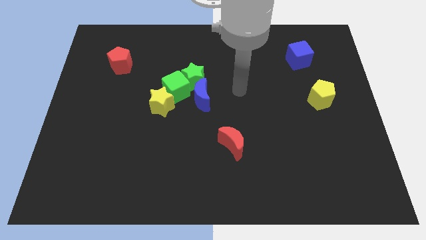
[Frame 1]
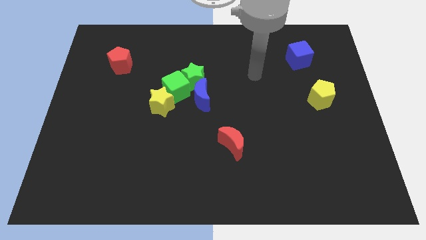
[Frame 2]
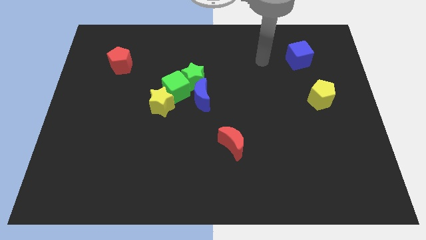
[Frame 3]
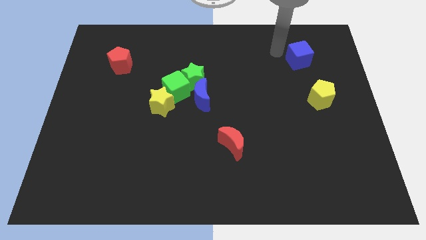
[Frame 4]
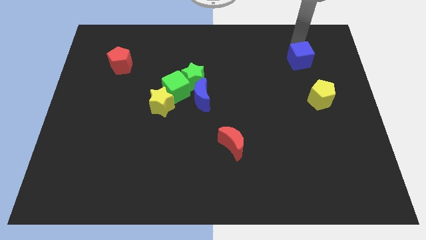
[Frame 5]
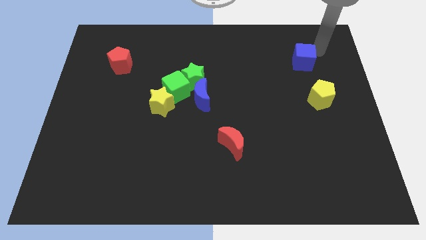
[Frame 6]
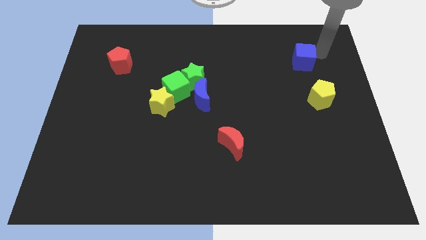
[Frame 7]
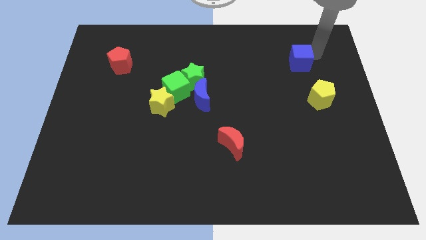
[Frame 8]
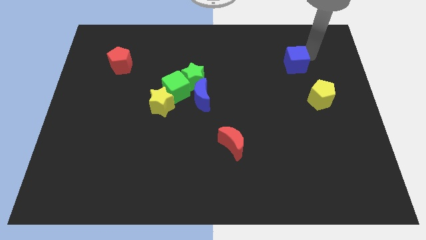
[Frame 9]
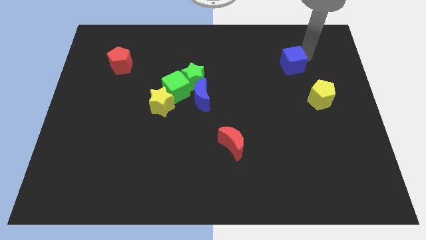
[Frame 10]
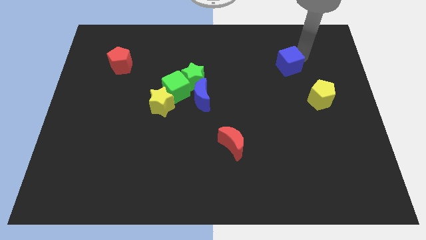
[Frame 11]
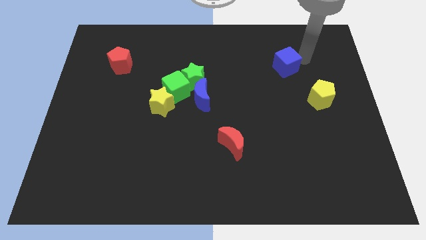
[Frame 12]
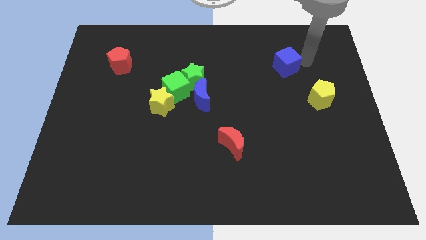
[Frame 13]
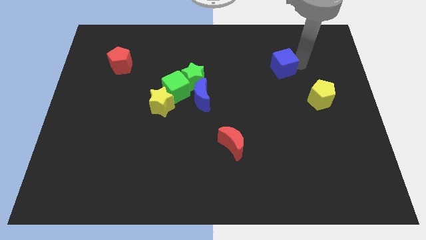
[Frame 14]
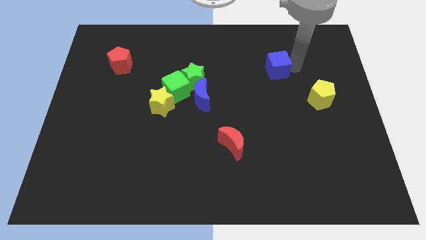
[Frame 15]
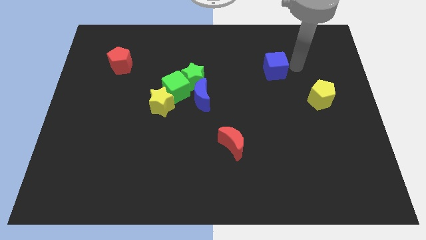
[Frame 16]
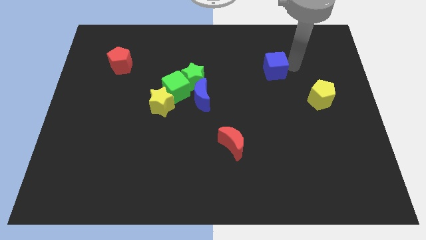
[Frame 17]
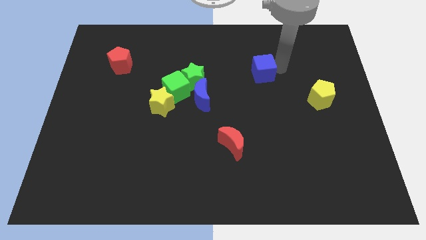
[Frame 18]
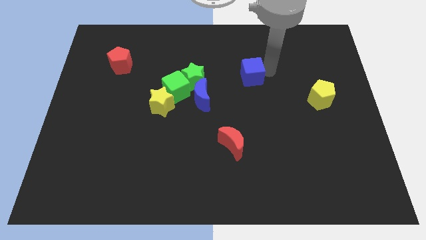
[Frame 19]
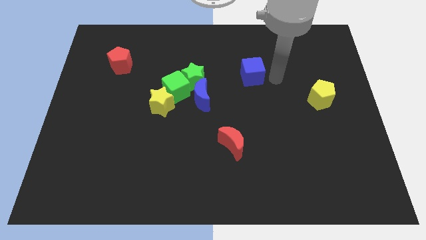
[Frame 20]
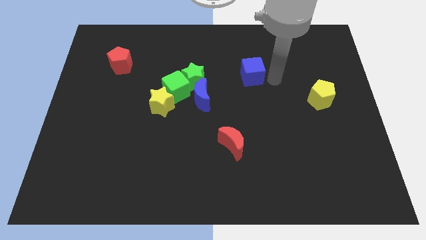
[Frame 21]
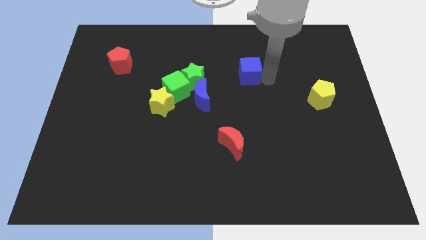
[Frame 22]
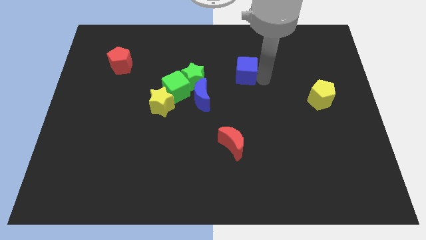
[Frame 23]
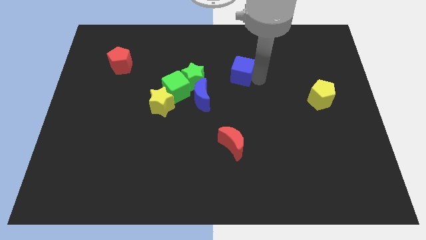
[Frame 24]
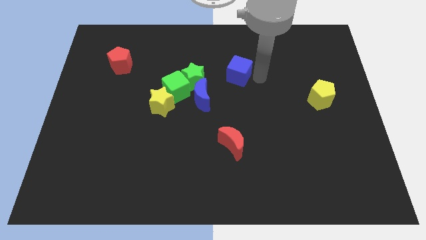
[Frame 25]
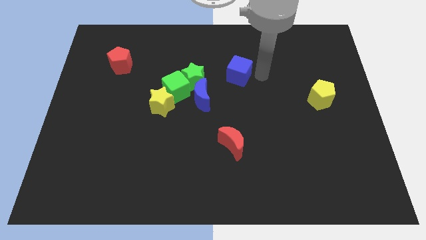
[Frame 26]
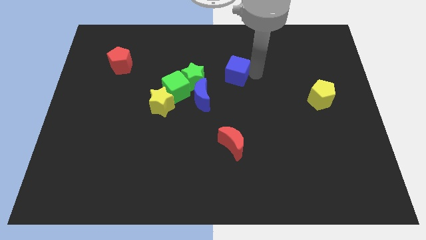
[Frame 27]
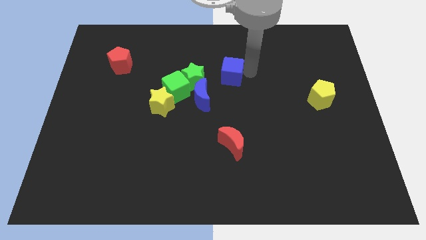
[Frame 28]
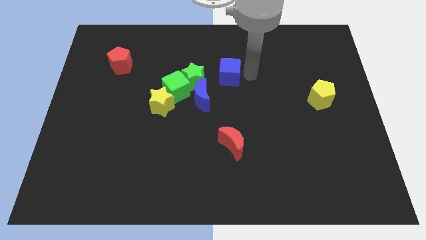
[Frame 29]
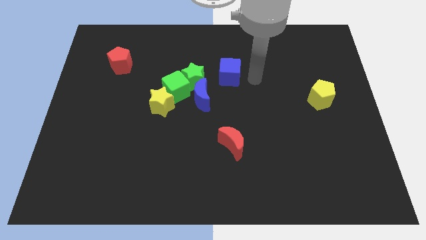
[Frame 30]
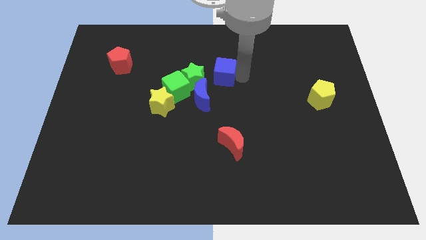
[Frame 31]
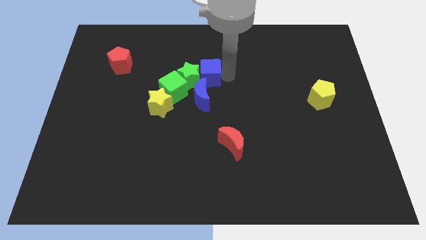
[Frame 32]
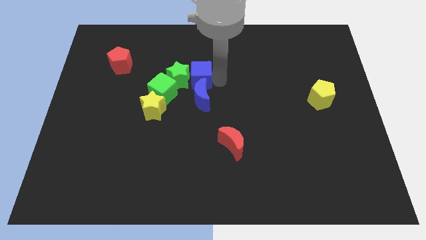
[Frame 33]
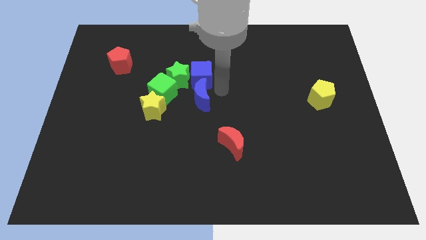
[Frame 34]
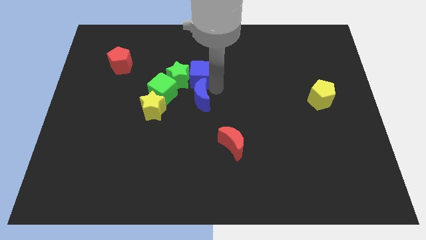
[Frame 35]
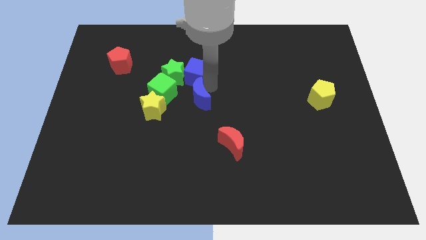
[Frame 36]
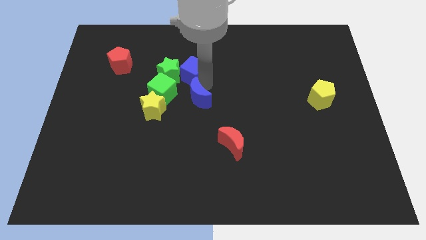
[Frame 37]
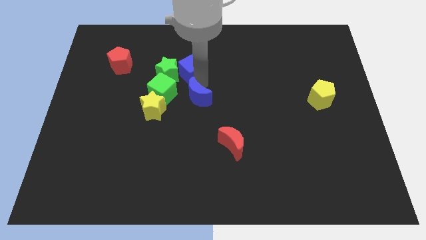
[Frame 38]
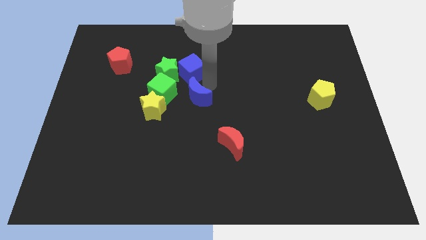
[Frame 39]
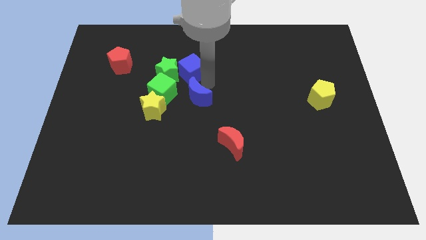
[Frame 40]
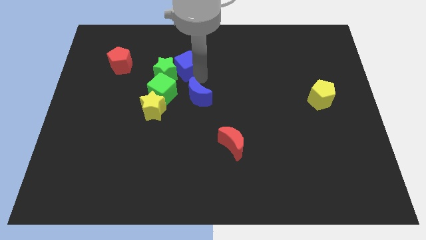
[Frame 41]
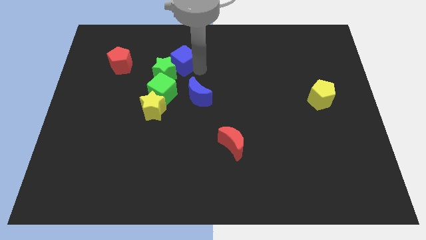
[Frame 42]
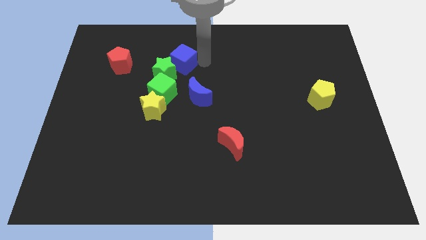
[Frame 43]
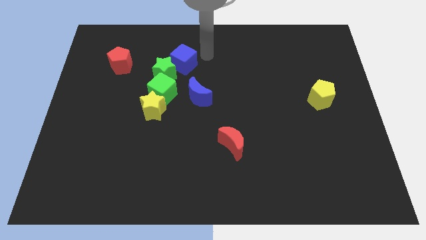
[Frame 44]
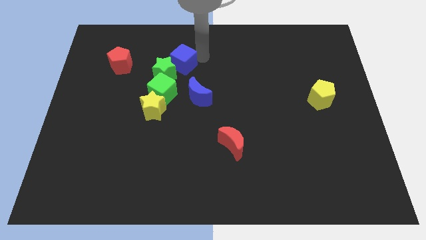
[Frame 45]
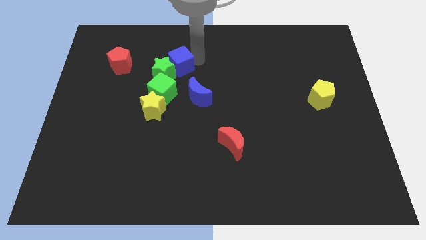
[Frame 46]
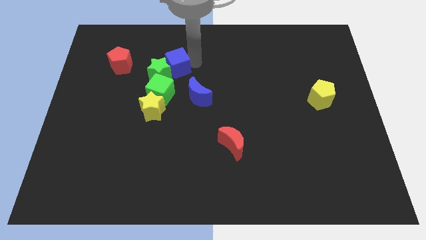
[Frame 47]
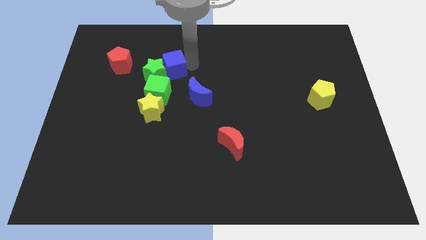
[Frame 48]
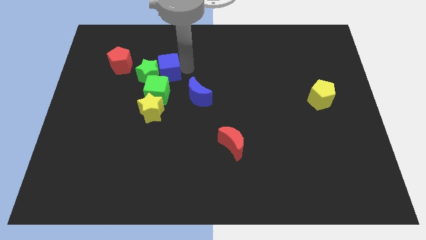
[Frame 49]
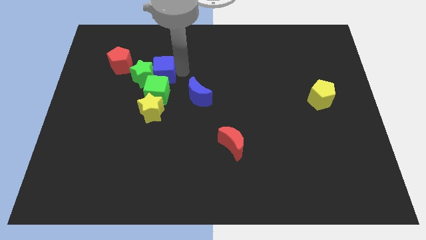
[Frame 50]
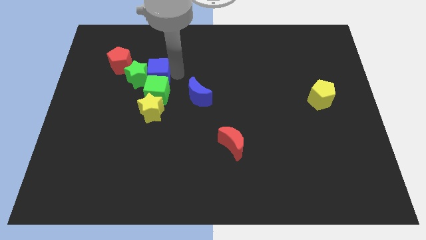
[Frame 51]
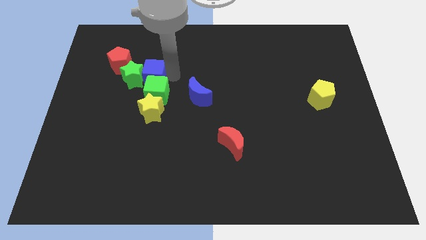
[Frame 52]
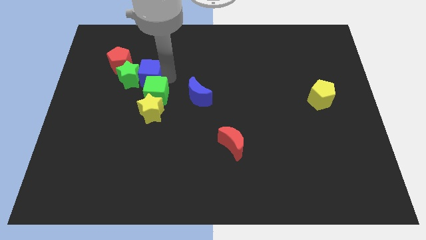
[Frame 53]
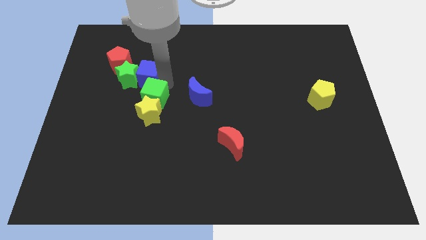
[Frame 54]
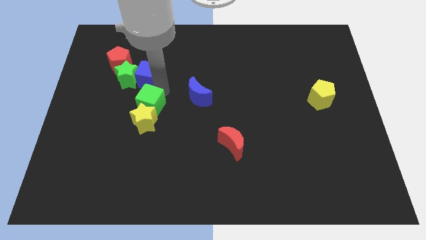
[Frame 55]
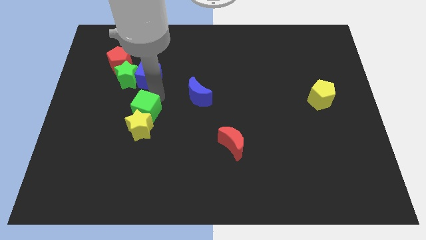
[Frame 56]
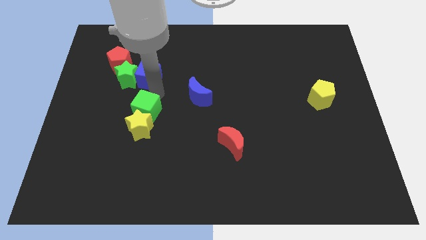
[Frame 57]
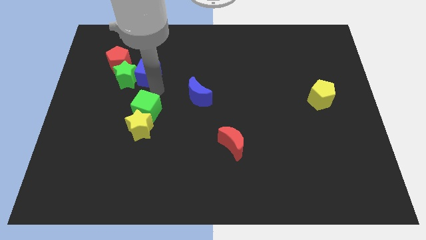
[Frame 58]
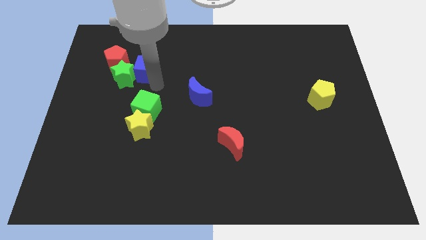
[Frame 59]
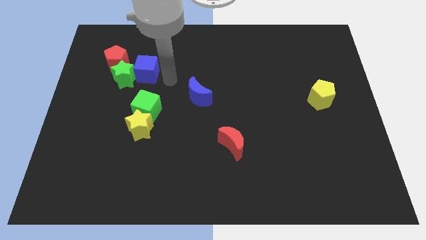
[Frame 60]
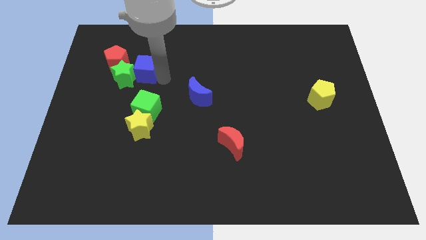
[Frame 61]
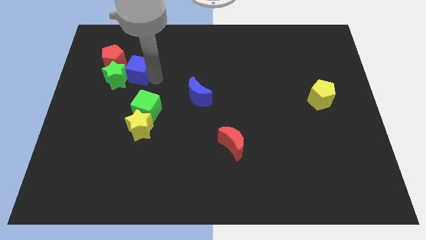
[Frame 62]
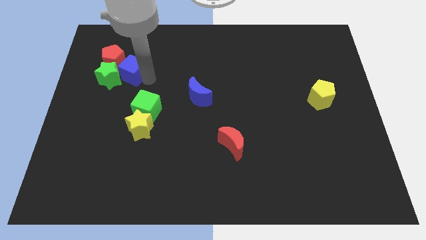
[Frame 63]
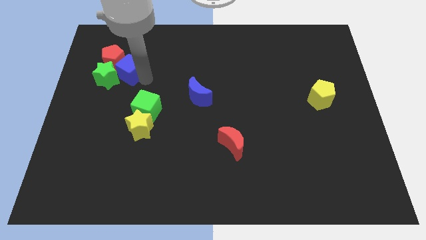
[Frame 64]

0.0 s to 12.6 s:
put the blue cube towards the red pentagon

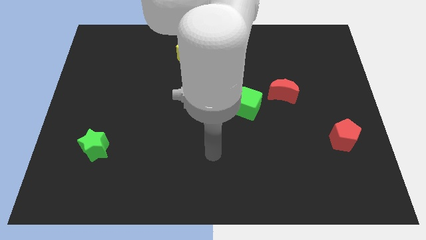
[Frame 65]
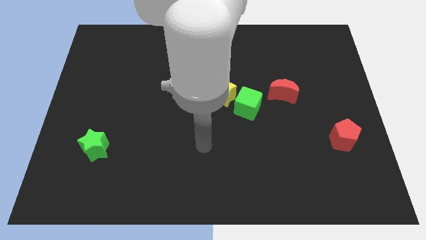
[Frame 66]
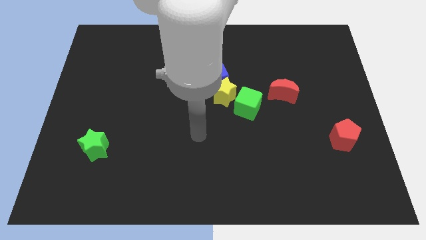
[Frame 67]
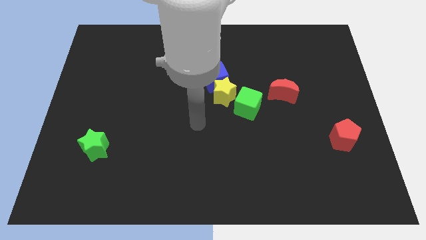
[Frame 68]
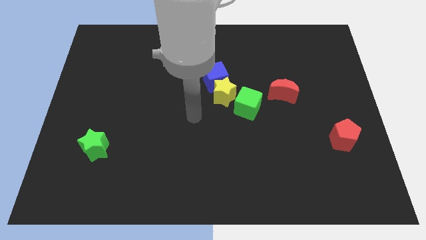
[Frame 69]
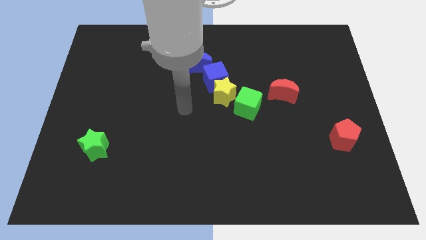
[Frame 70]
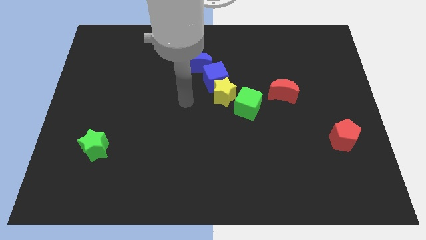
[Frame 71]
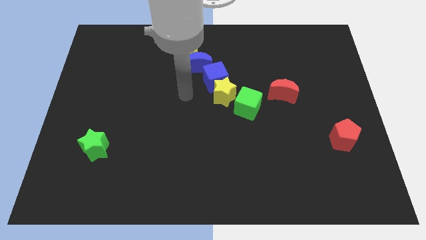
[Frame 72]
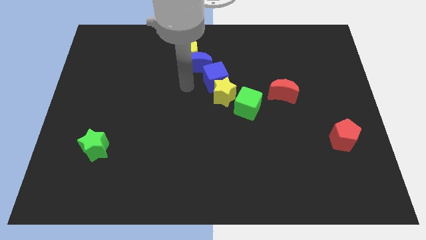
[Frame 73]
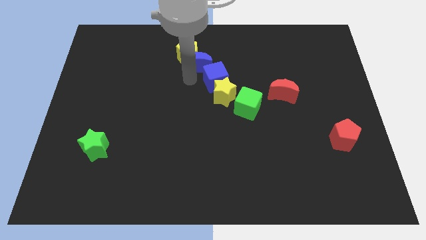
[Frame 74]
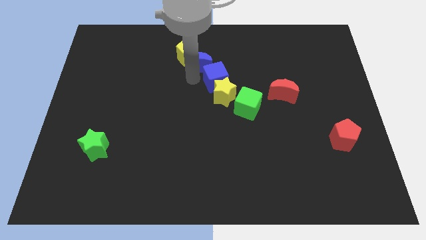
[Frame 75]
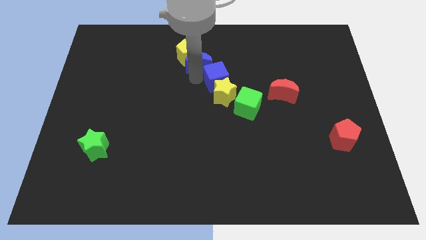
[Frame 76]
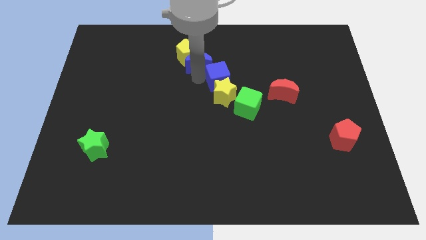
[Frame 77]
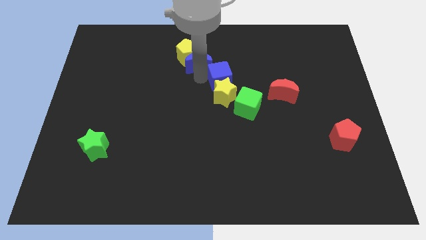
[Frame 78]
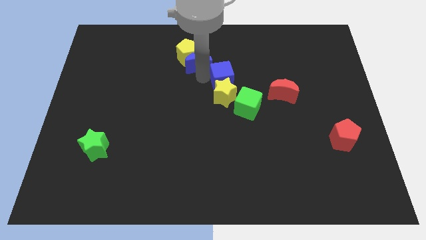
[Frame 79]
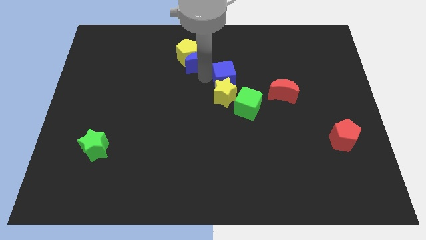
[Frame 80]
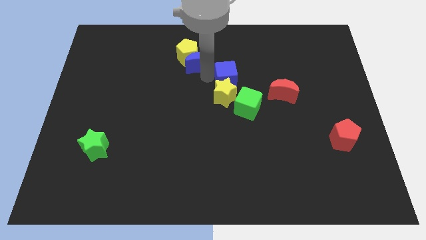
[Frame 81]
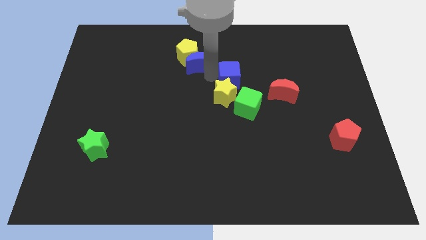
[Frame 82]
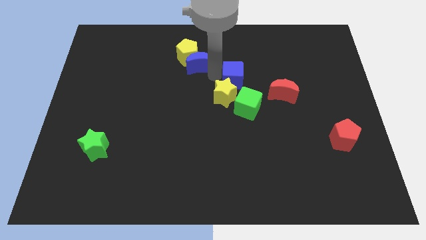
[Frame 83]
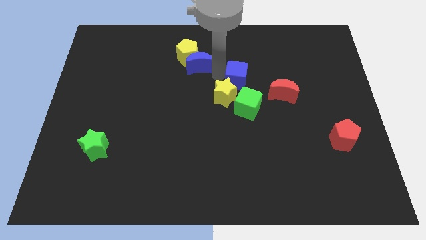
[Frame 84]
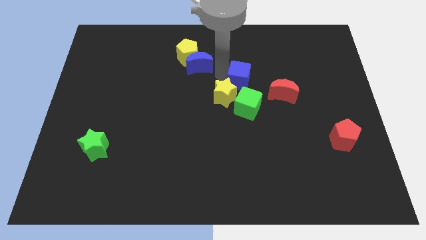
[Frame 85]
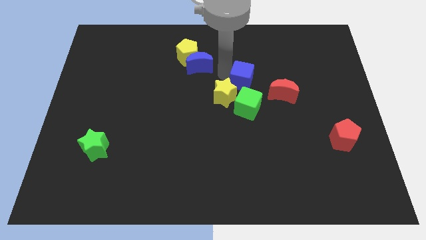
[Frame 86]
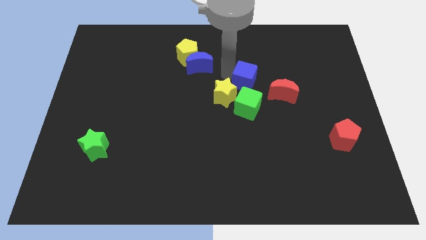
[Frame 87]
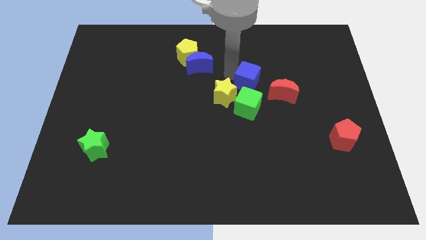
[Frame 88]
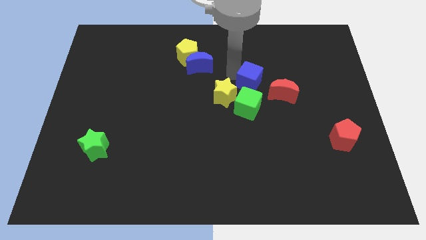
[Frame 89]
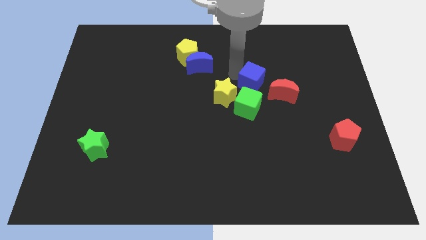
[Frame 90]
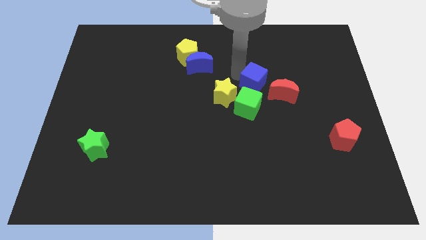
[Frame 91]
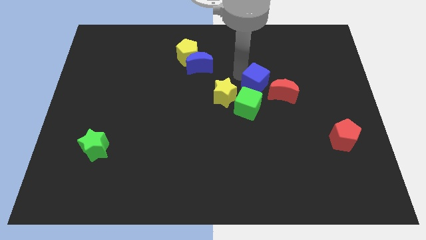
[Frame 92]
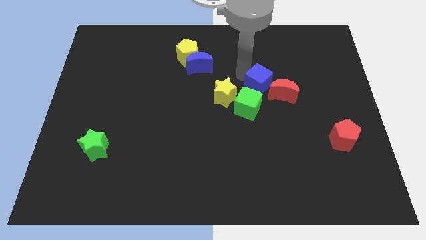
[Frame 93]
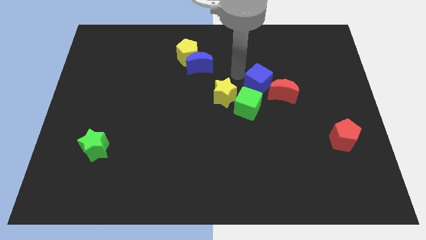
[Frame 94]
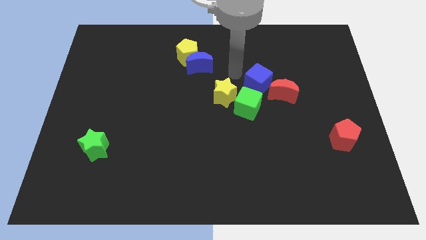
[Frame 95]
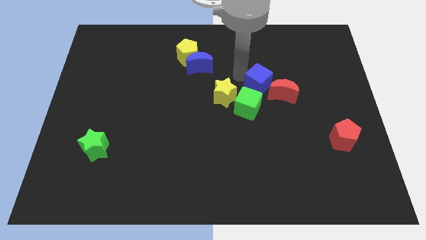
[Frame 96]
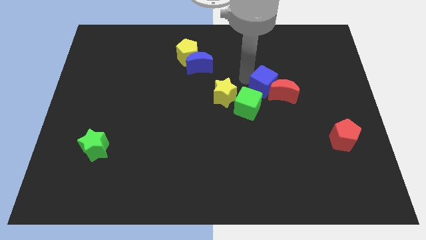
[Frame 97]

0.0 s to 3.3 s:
slide the blue cube next to the red moon
